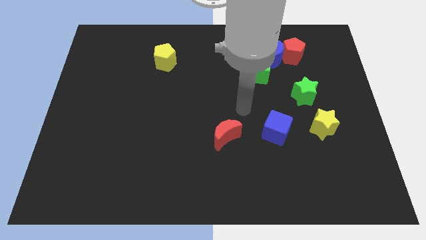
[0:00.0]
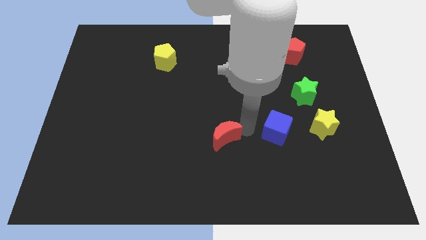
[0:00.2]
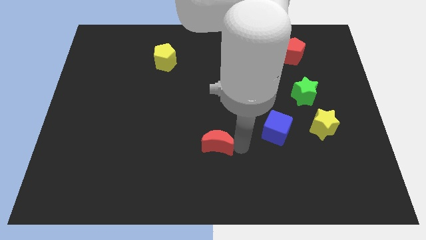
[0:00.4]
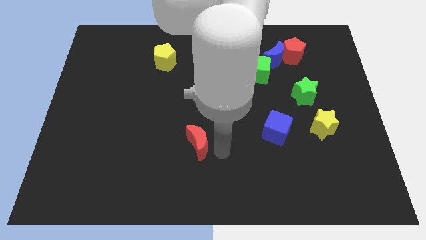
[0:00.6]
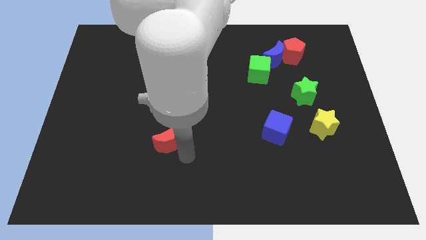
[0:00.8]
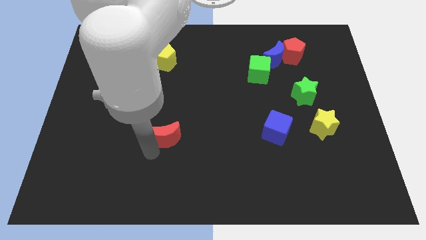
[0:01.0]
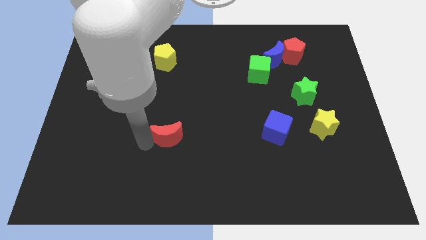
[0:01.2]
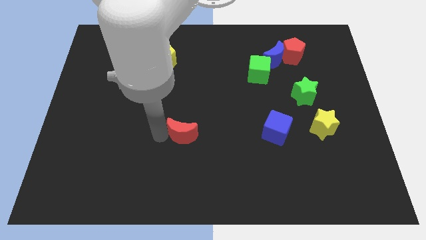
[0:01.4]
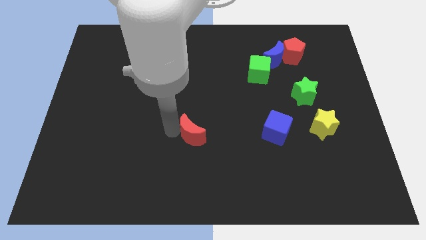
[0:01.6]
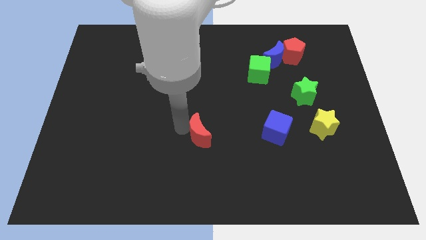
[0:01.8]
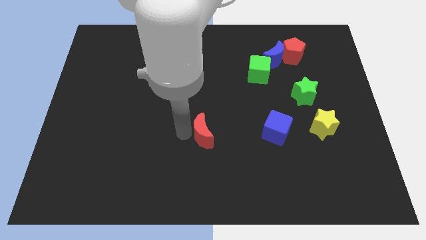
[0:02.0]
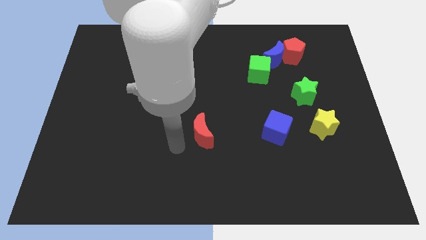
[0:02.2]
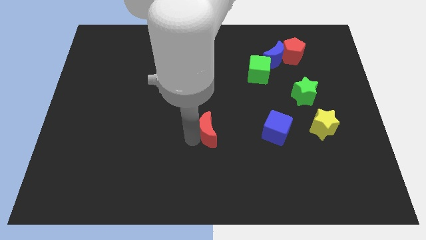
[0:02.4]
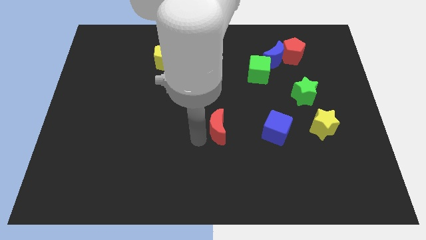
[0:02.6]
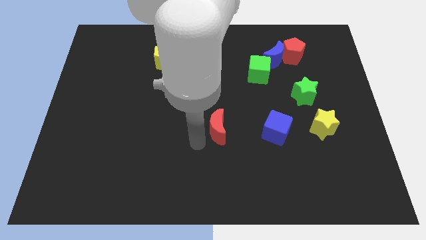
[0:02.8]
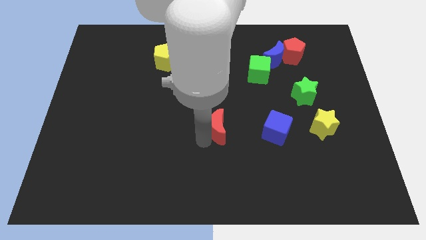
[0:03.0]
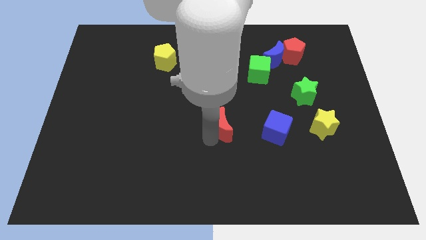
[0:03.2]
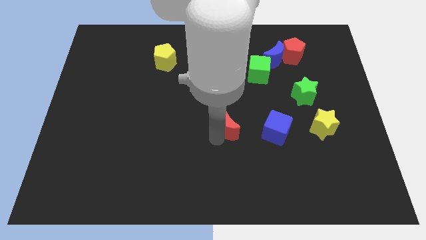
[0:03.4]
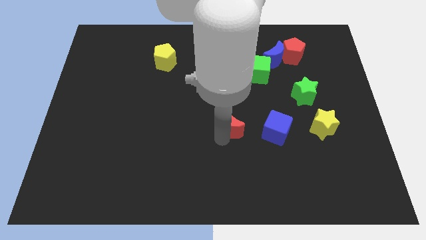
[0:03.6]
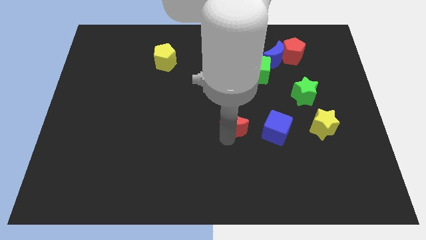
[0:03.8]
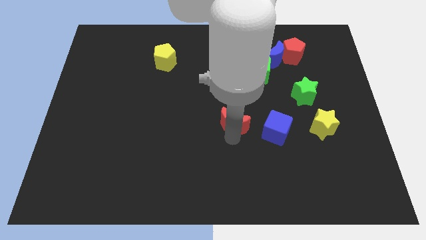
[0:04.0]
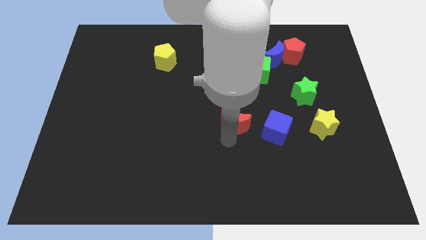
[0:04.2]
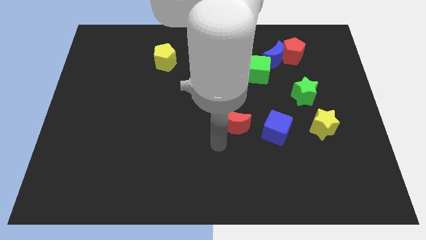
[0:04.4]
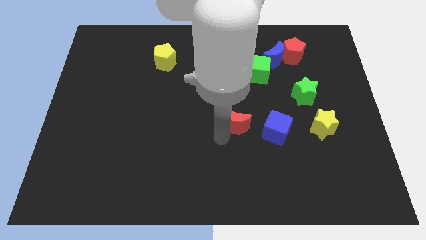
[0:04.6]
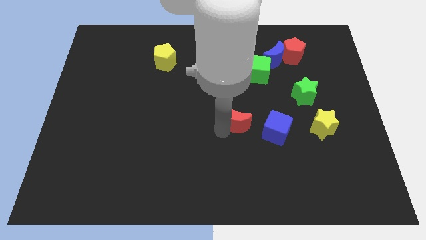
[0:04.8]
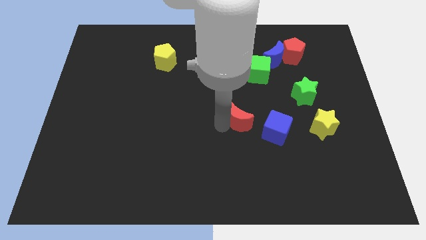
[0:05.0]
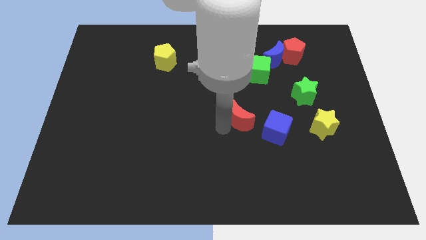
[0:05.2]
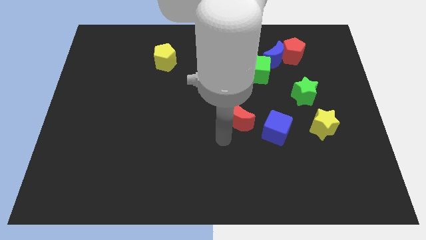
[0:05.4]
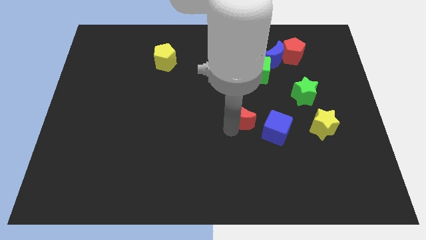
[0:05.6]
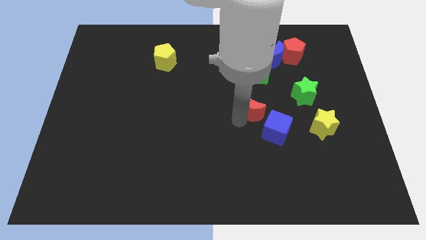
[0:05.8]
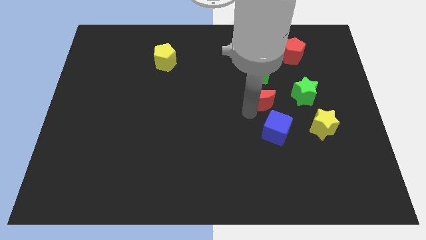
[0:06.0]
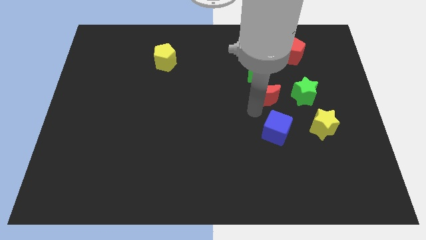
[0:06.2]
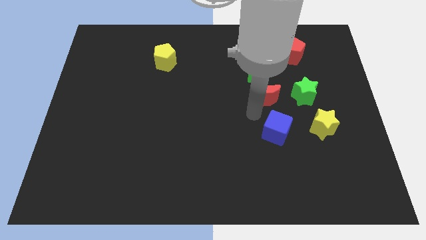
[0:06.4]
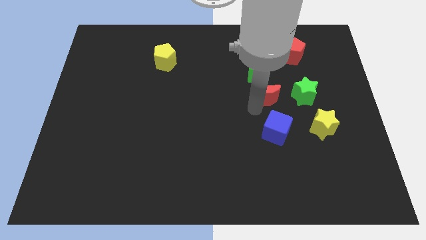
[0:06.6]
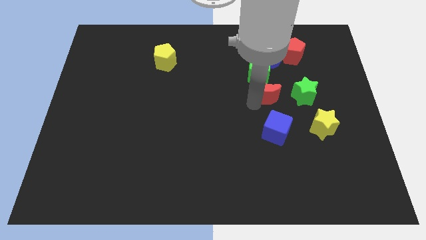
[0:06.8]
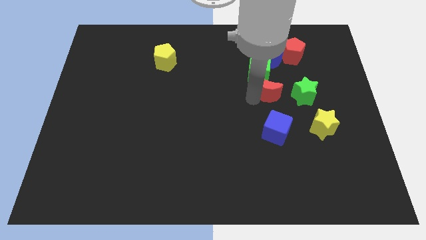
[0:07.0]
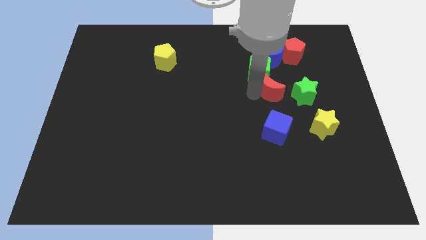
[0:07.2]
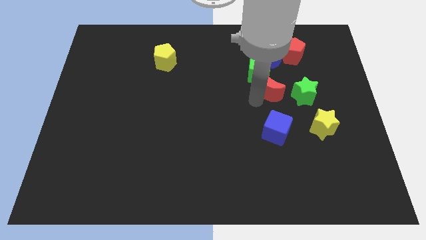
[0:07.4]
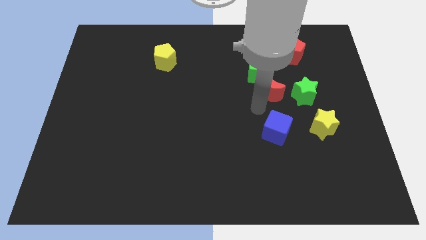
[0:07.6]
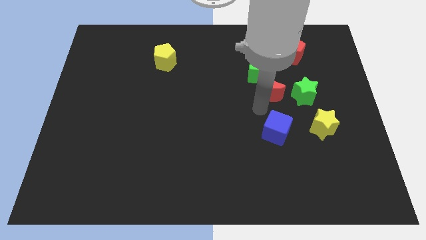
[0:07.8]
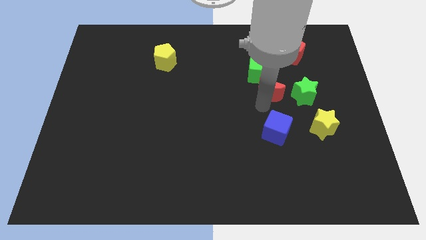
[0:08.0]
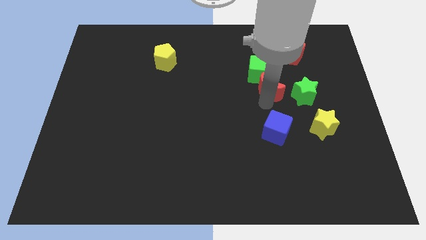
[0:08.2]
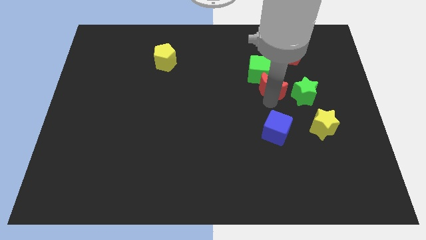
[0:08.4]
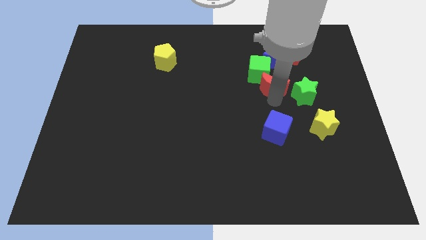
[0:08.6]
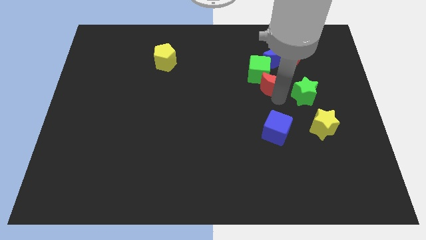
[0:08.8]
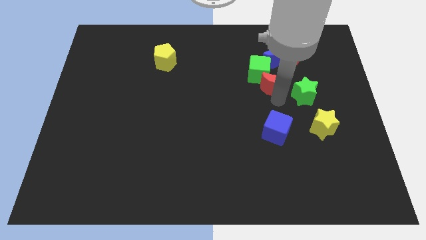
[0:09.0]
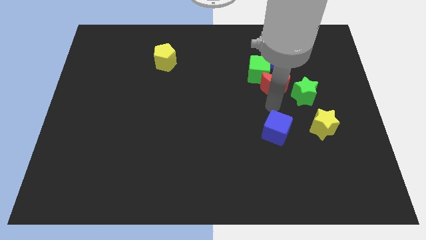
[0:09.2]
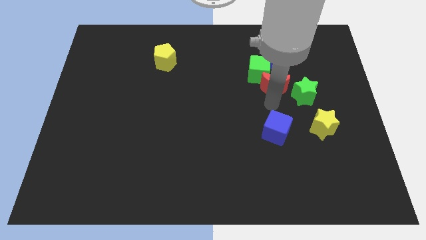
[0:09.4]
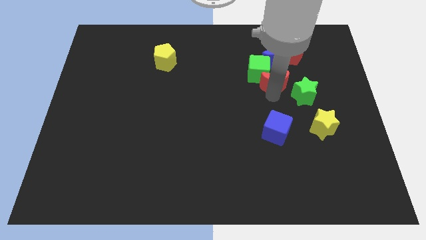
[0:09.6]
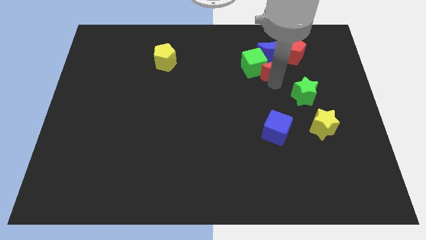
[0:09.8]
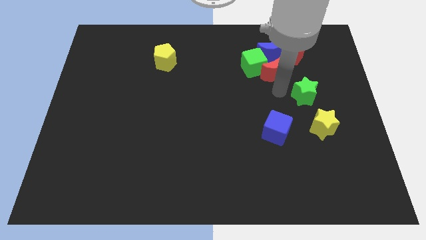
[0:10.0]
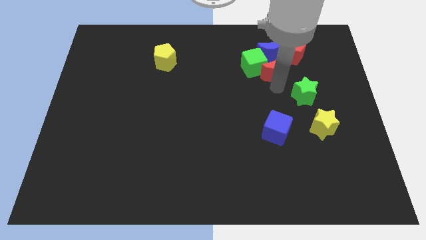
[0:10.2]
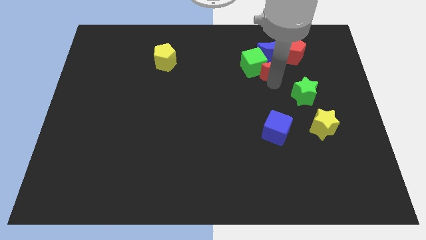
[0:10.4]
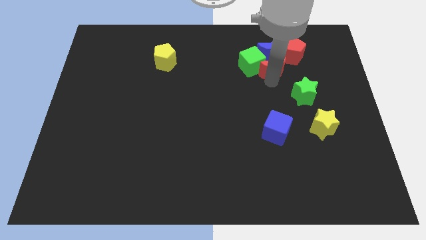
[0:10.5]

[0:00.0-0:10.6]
push the red moon towards the blue moon

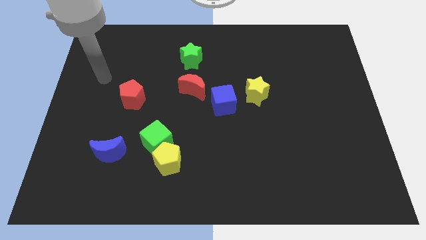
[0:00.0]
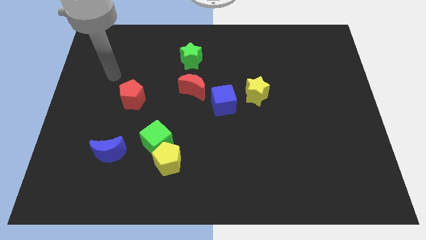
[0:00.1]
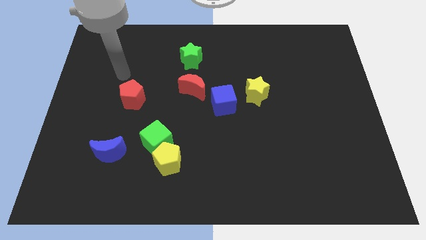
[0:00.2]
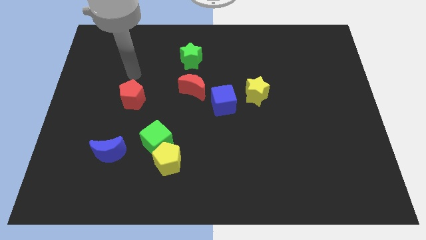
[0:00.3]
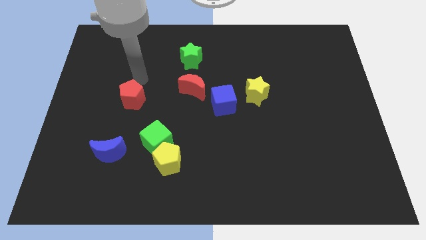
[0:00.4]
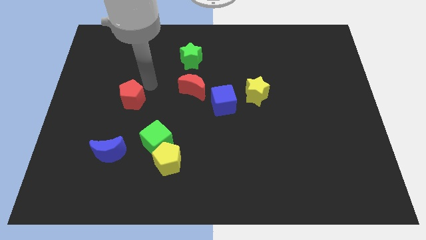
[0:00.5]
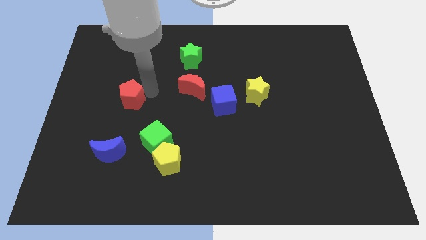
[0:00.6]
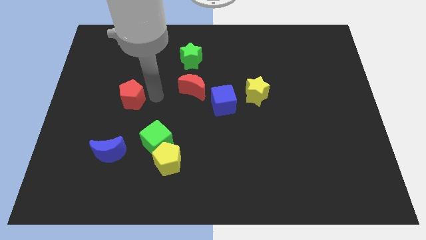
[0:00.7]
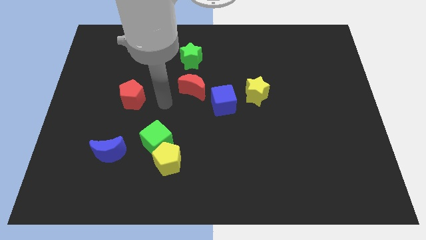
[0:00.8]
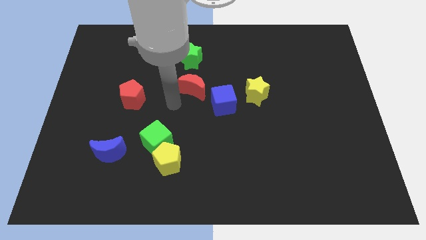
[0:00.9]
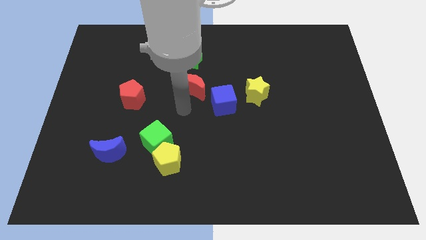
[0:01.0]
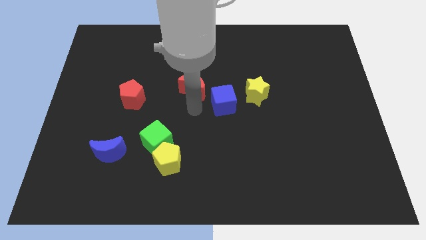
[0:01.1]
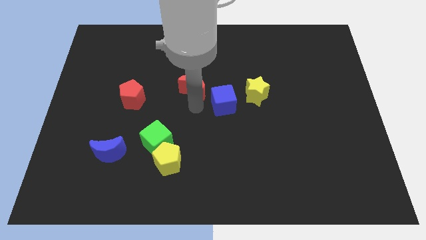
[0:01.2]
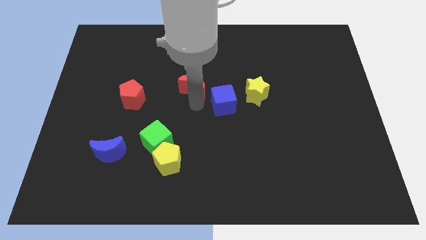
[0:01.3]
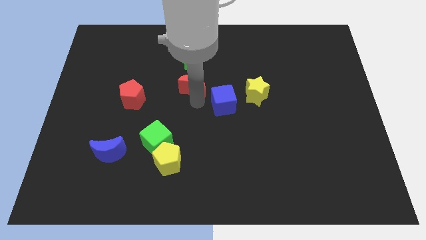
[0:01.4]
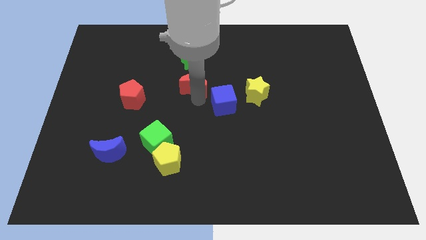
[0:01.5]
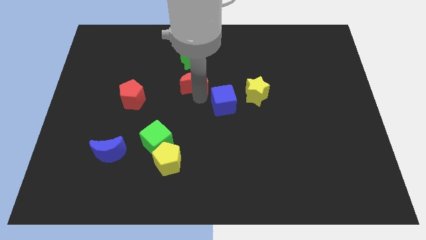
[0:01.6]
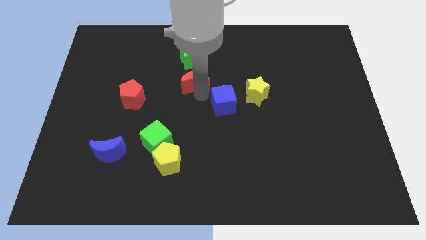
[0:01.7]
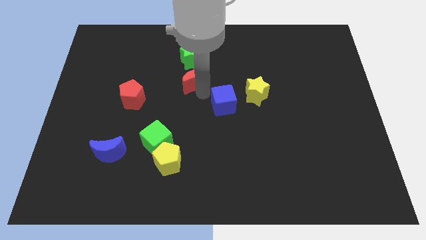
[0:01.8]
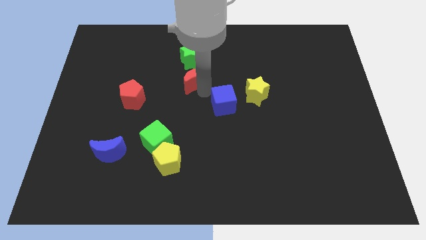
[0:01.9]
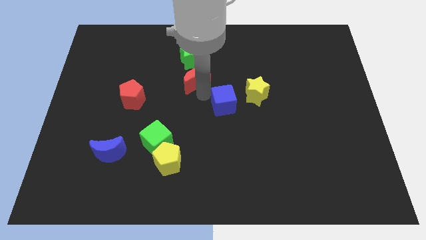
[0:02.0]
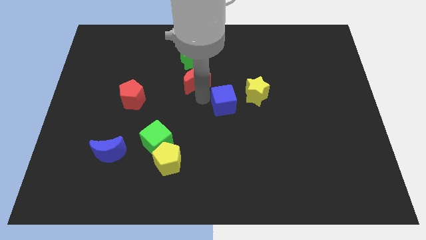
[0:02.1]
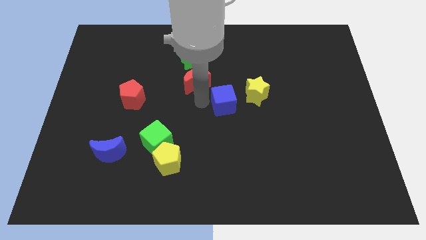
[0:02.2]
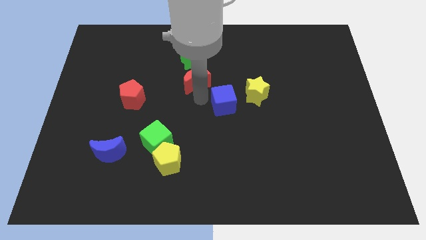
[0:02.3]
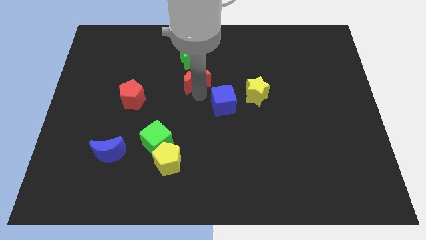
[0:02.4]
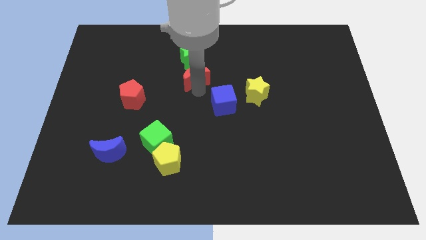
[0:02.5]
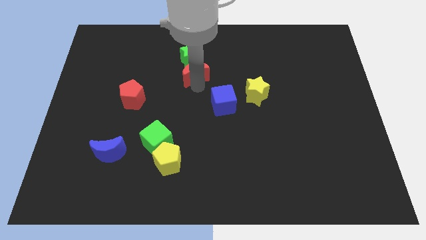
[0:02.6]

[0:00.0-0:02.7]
slide the red moon close to the green star
